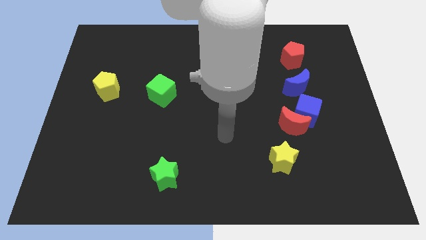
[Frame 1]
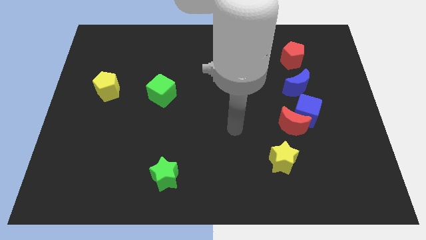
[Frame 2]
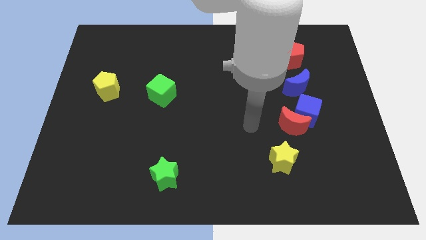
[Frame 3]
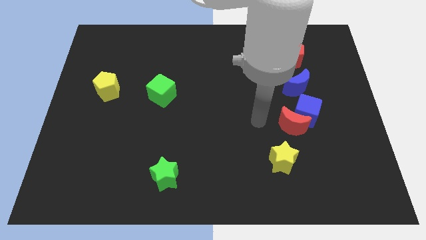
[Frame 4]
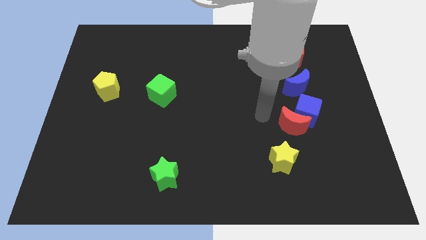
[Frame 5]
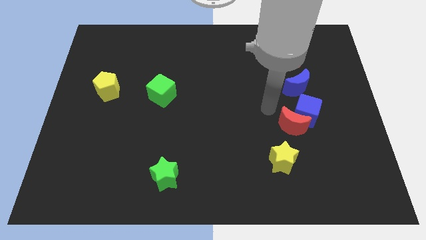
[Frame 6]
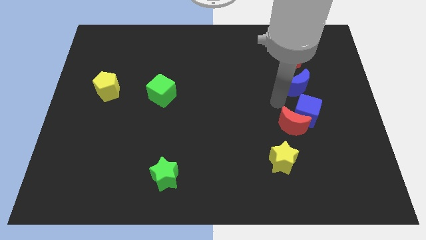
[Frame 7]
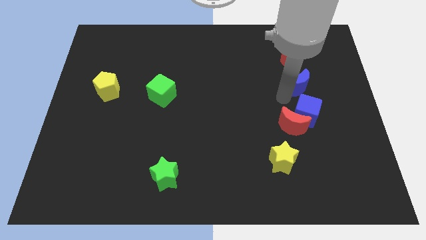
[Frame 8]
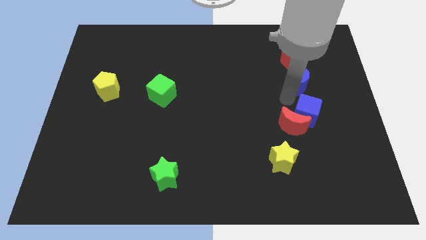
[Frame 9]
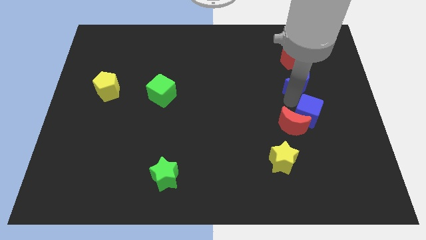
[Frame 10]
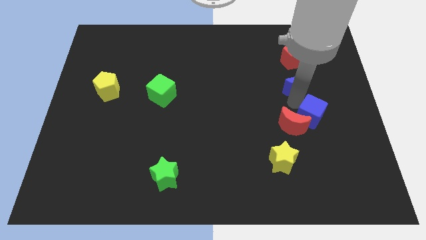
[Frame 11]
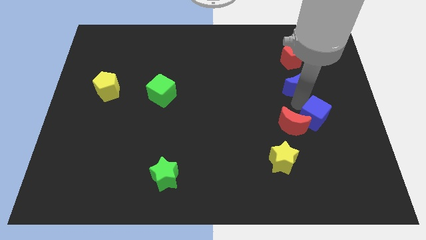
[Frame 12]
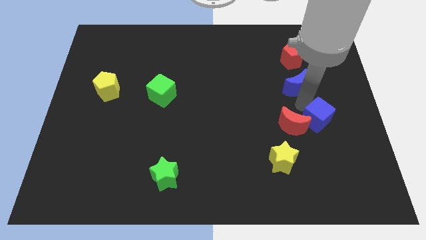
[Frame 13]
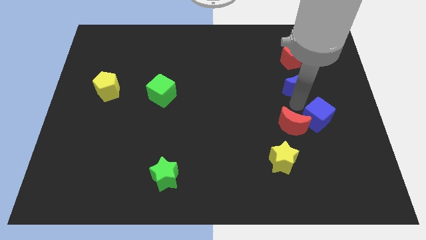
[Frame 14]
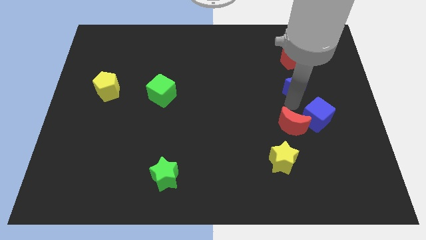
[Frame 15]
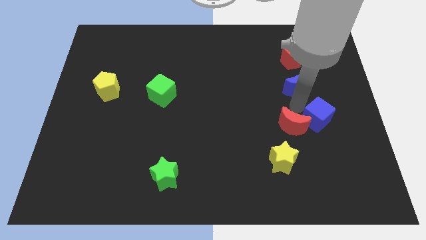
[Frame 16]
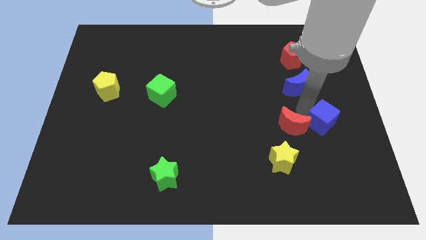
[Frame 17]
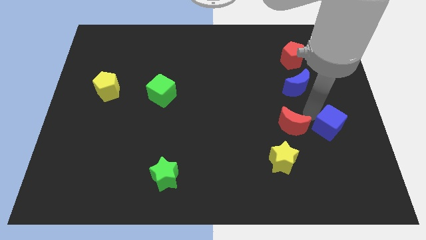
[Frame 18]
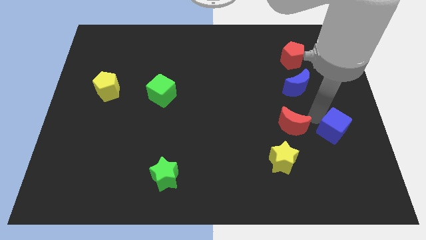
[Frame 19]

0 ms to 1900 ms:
separate the blue cube from the red moon and blue moon

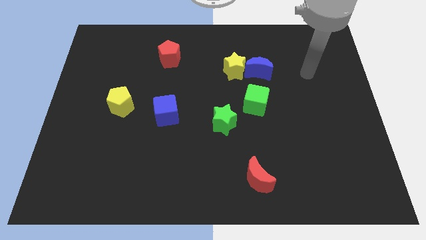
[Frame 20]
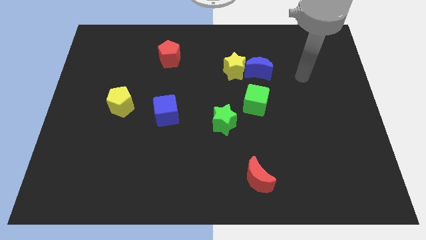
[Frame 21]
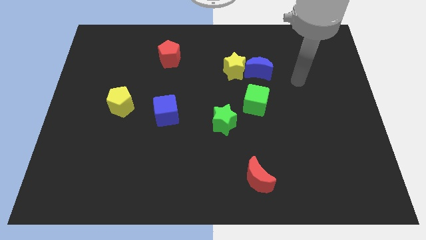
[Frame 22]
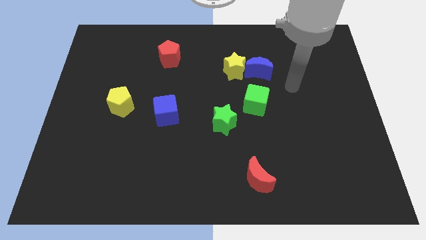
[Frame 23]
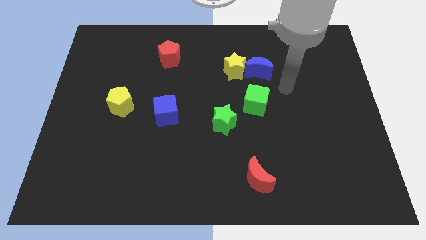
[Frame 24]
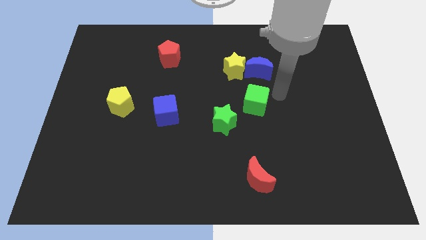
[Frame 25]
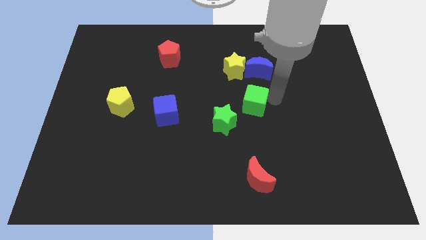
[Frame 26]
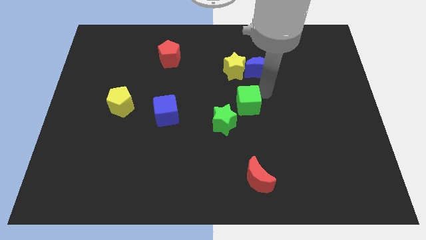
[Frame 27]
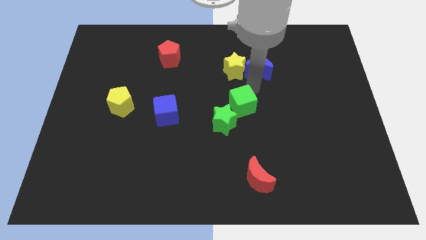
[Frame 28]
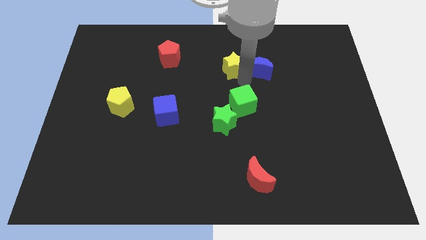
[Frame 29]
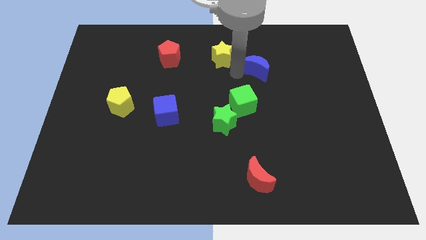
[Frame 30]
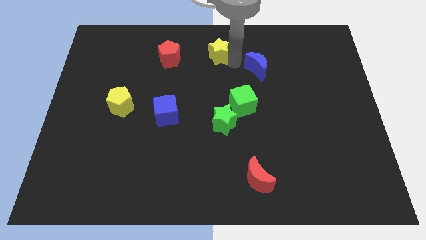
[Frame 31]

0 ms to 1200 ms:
separate the blue moon from the yellow star

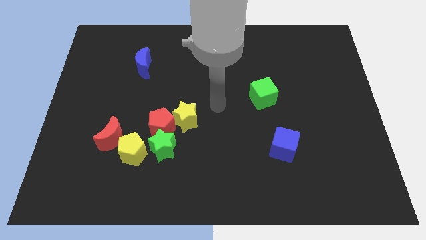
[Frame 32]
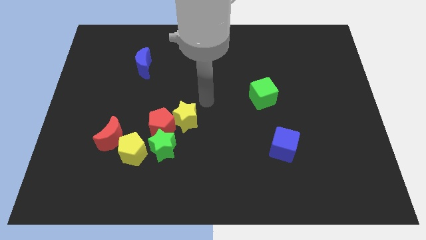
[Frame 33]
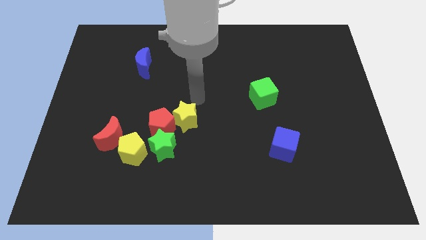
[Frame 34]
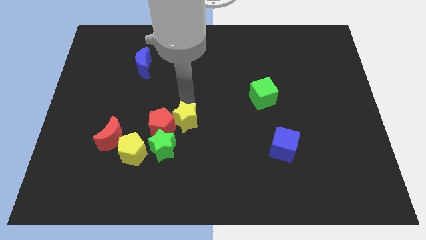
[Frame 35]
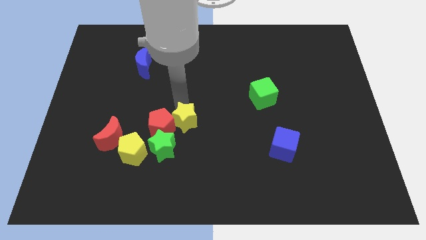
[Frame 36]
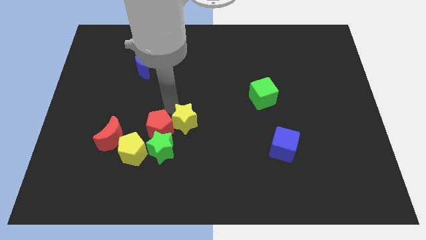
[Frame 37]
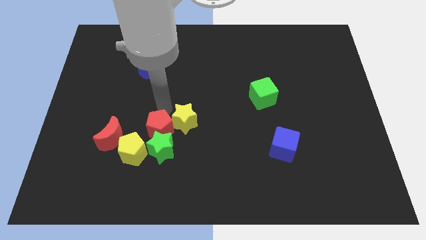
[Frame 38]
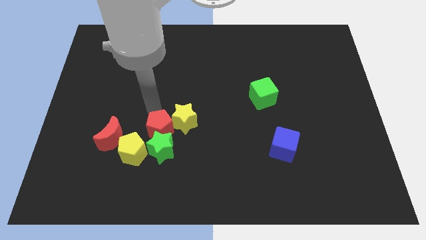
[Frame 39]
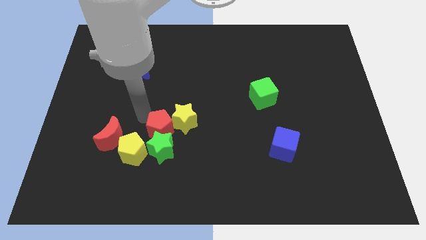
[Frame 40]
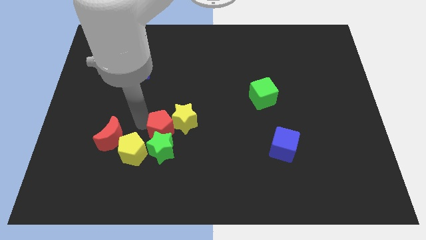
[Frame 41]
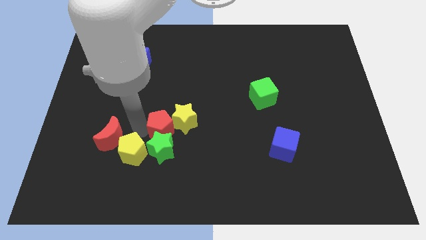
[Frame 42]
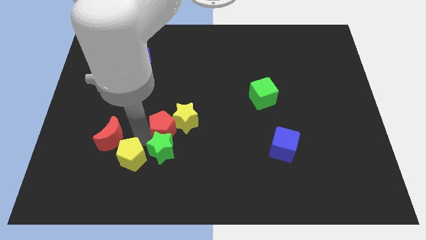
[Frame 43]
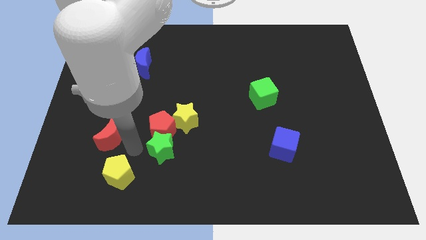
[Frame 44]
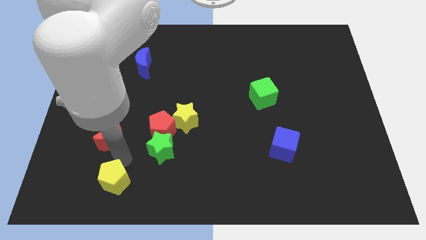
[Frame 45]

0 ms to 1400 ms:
pull the red moon apart from the yellow pentagon

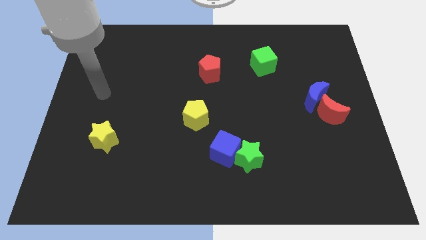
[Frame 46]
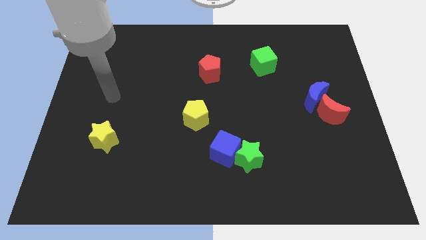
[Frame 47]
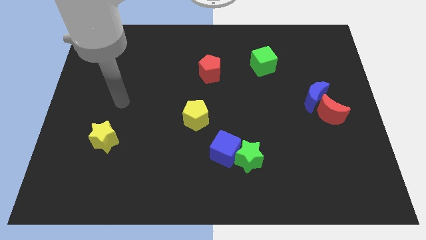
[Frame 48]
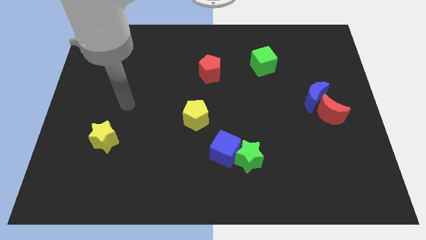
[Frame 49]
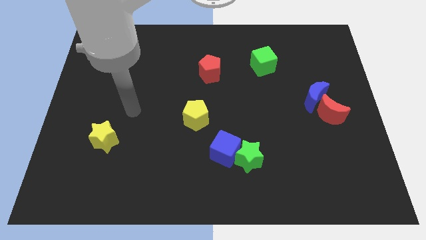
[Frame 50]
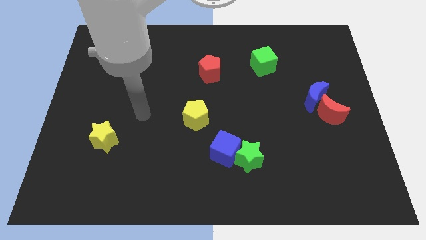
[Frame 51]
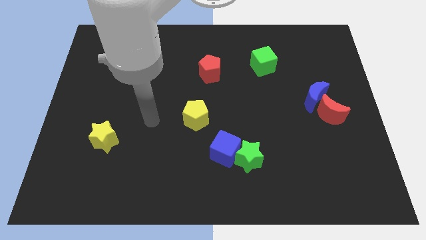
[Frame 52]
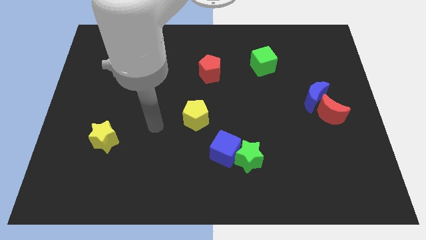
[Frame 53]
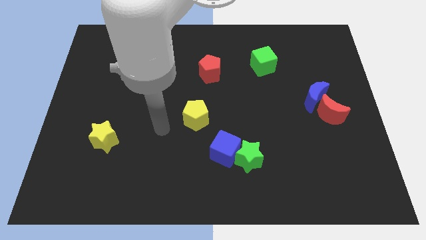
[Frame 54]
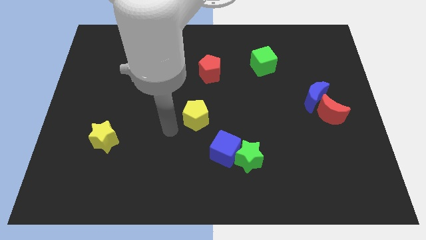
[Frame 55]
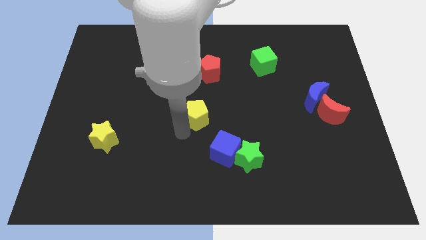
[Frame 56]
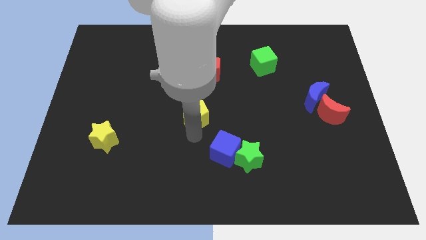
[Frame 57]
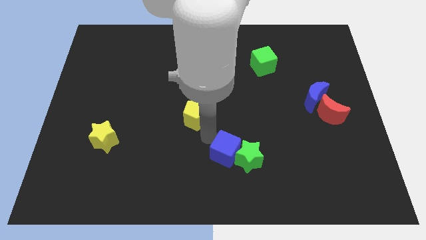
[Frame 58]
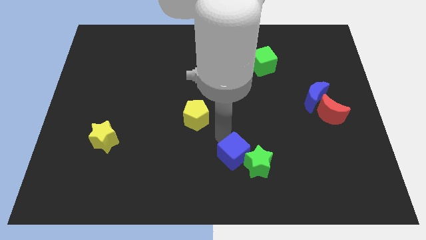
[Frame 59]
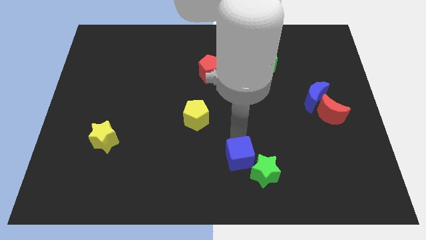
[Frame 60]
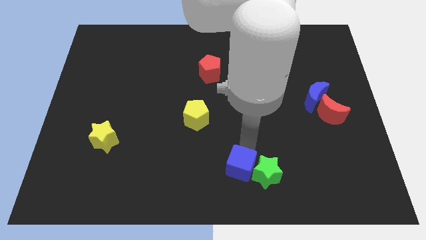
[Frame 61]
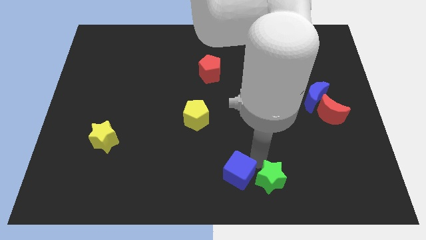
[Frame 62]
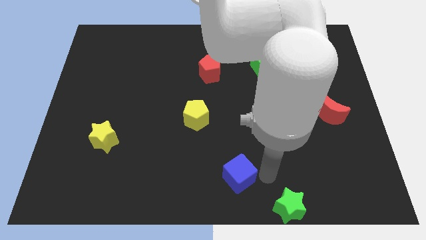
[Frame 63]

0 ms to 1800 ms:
move the blue cube away from the green star

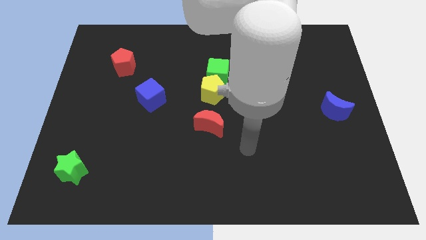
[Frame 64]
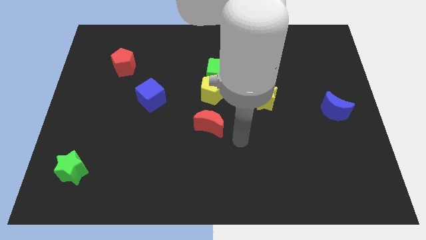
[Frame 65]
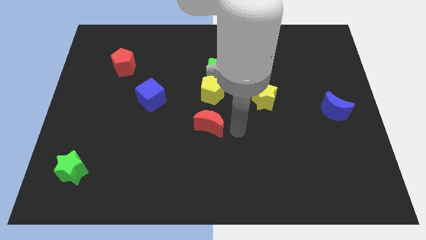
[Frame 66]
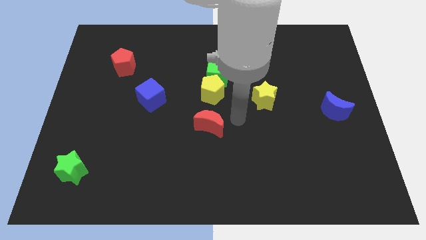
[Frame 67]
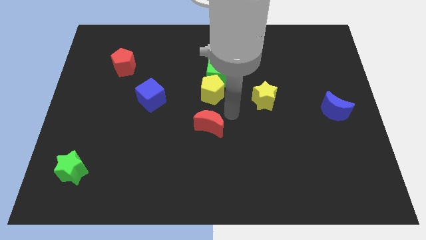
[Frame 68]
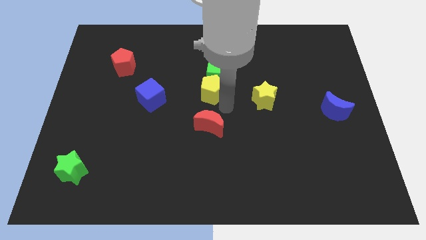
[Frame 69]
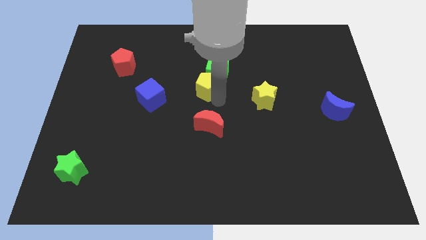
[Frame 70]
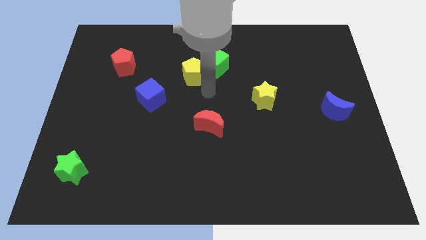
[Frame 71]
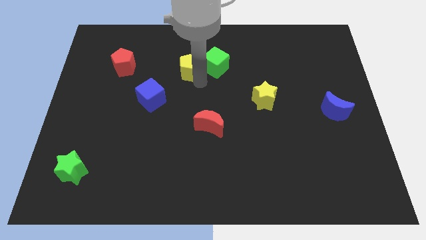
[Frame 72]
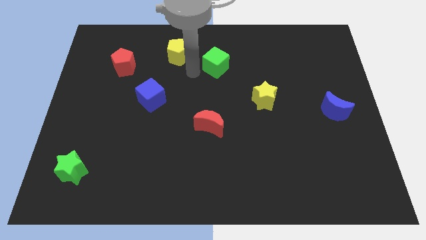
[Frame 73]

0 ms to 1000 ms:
separate the green cube from the yellow pentagon

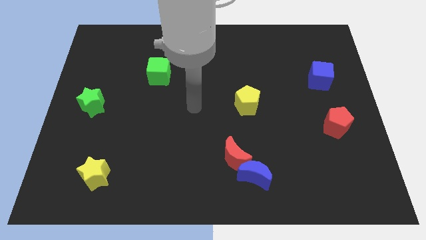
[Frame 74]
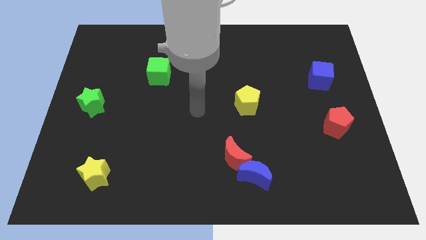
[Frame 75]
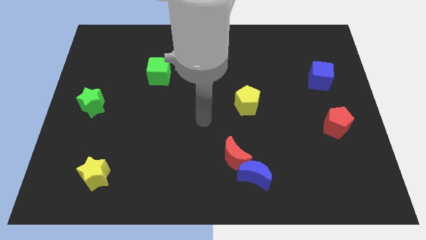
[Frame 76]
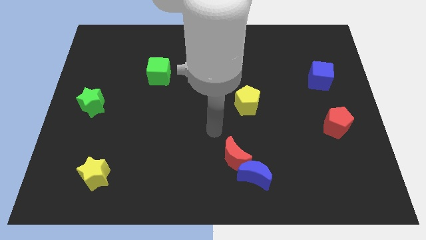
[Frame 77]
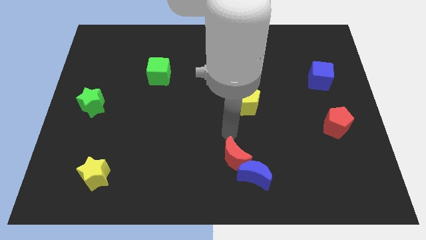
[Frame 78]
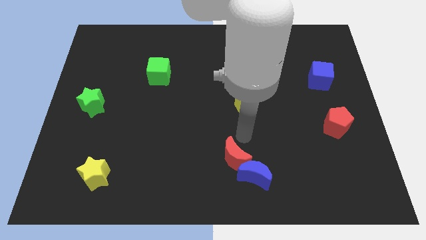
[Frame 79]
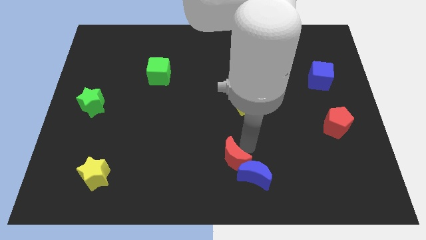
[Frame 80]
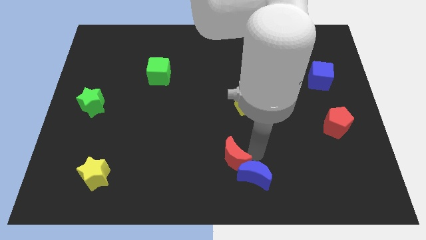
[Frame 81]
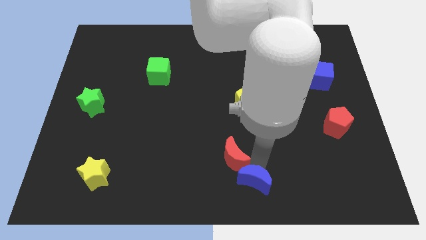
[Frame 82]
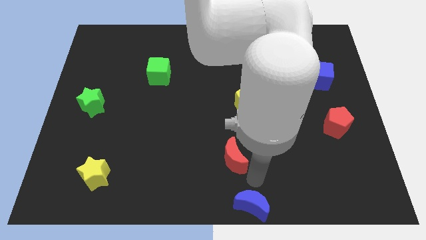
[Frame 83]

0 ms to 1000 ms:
separate the red moon from the blue moon

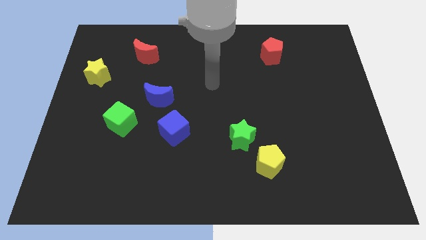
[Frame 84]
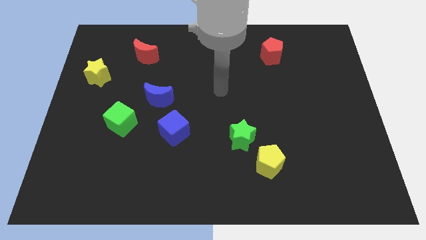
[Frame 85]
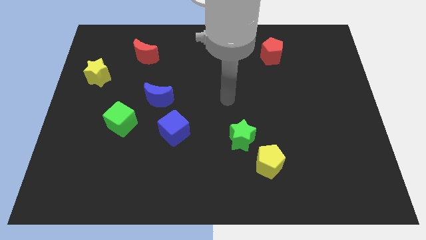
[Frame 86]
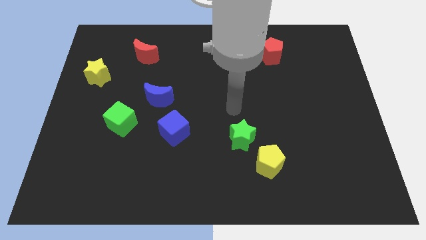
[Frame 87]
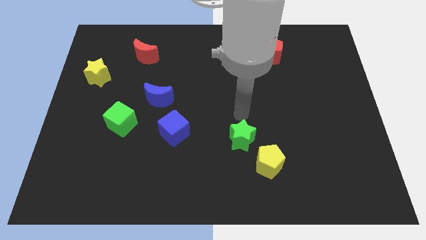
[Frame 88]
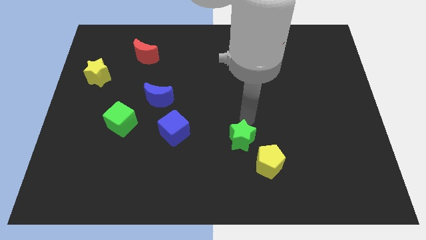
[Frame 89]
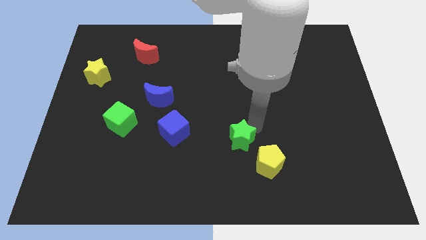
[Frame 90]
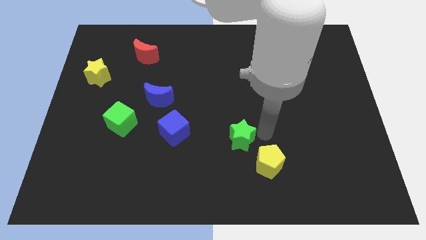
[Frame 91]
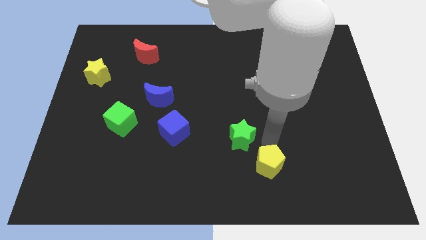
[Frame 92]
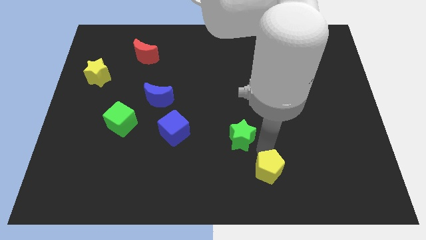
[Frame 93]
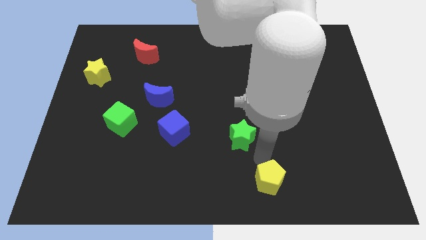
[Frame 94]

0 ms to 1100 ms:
pull the green star apart from the yellow pentagon
